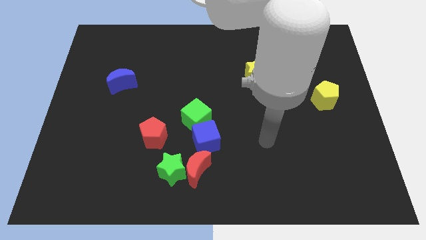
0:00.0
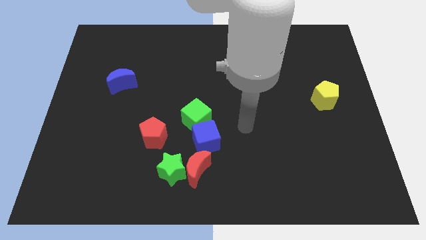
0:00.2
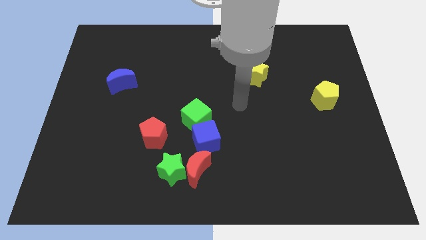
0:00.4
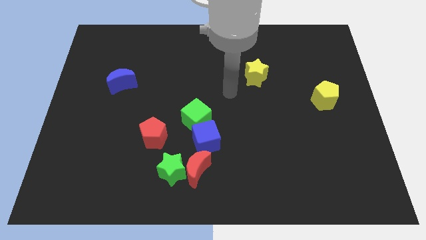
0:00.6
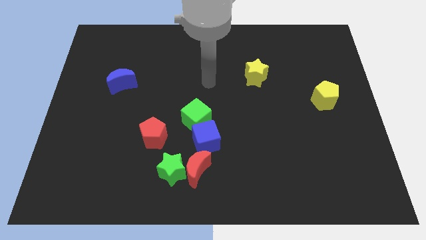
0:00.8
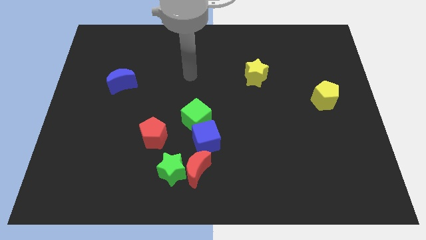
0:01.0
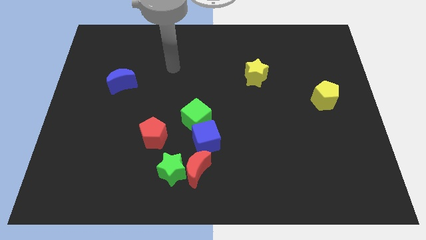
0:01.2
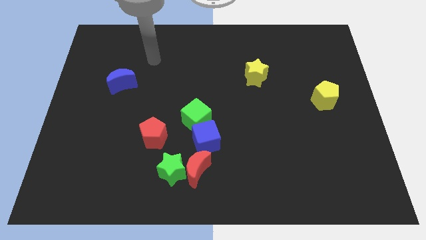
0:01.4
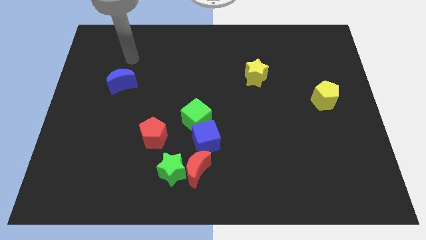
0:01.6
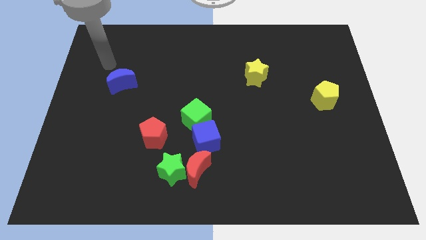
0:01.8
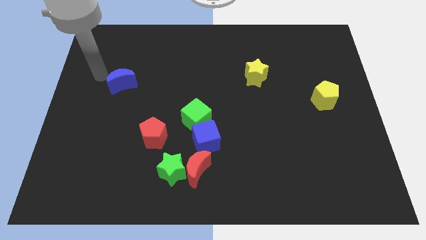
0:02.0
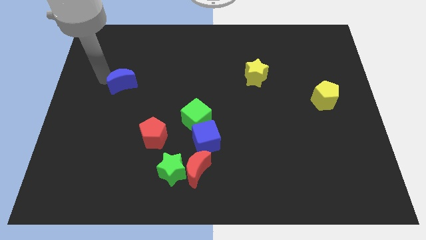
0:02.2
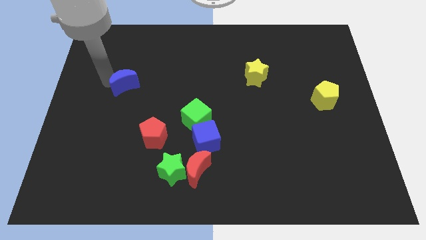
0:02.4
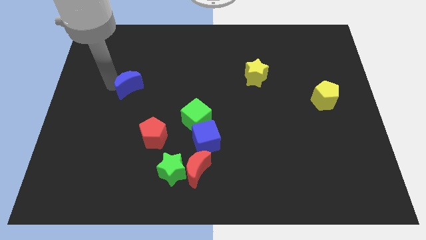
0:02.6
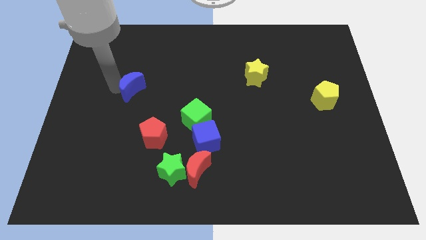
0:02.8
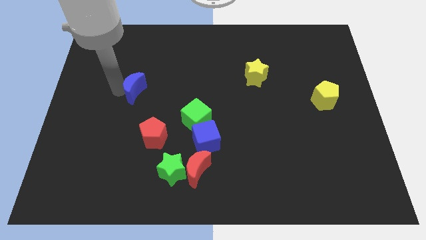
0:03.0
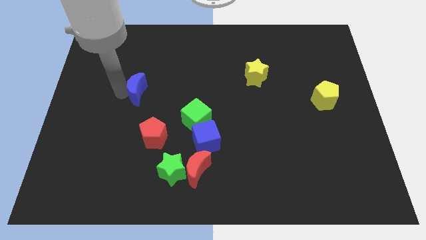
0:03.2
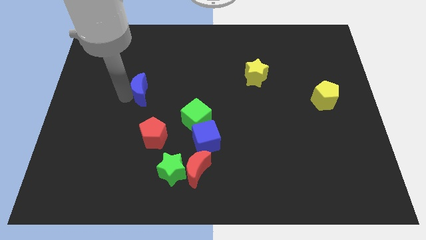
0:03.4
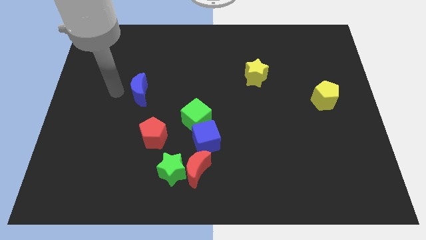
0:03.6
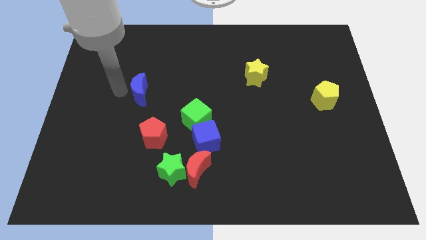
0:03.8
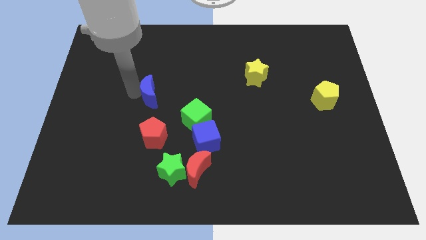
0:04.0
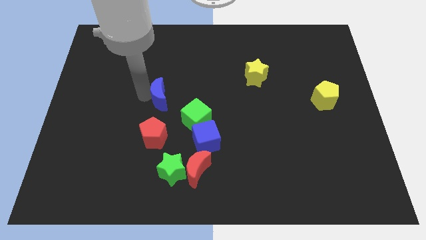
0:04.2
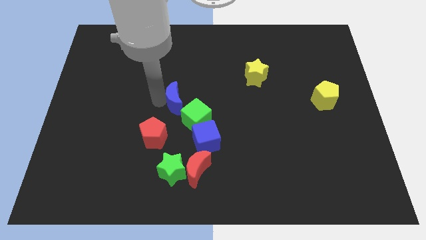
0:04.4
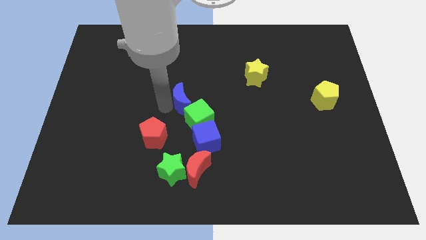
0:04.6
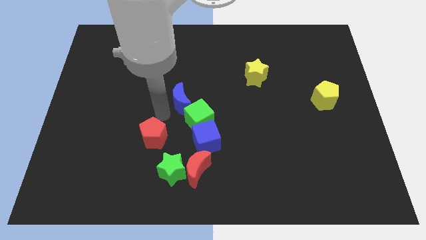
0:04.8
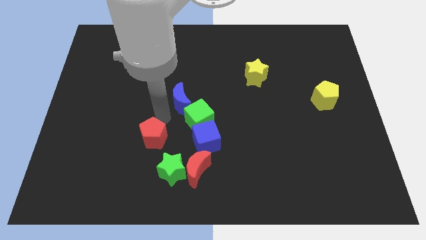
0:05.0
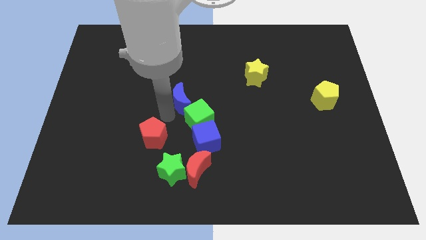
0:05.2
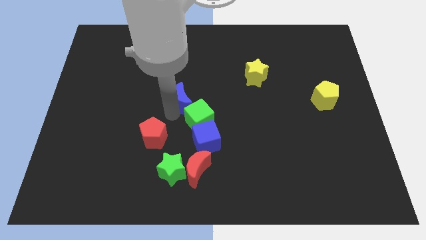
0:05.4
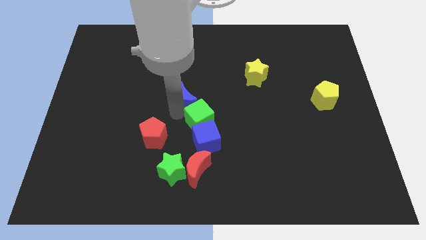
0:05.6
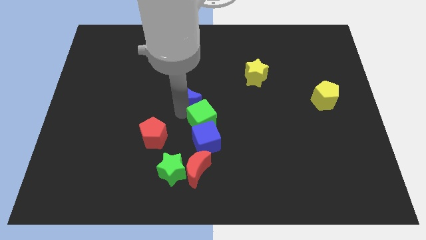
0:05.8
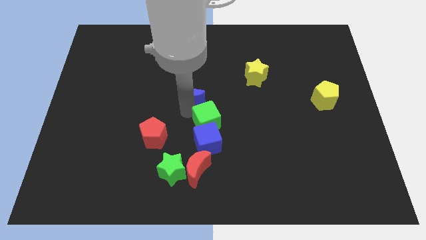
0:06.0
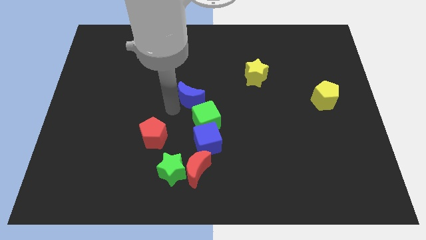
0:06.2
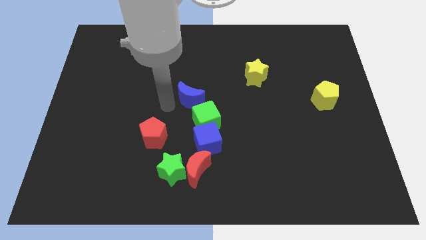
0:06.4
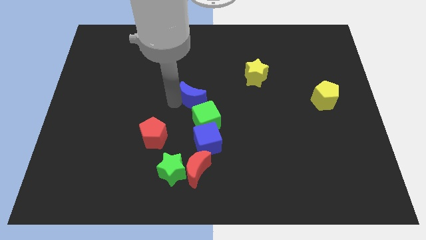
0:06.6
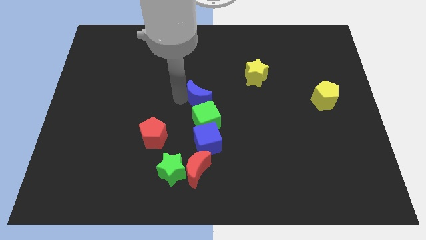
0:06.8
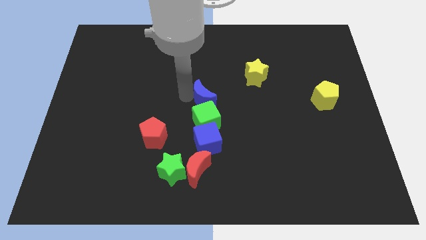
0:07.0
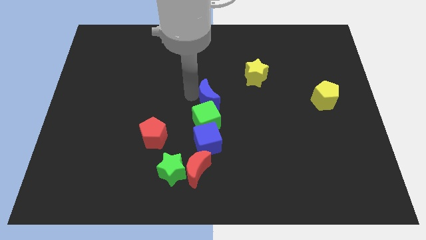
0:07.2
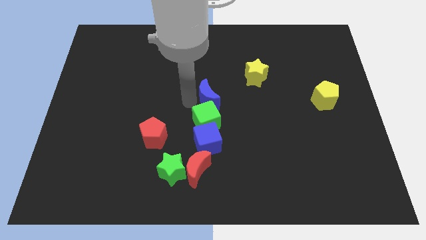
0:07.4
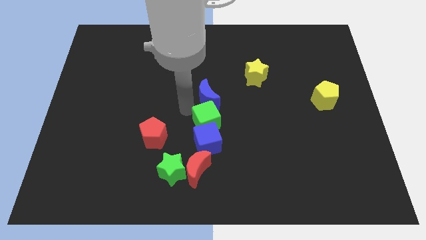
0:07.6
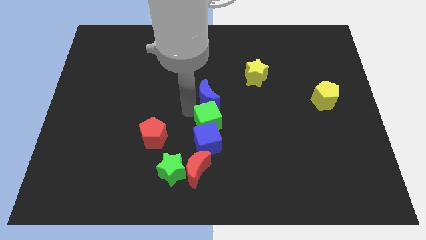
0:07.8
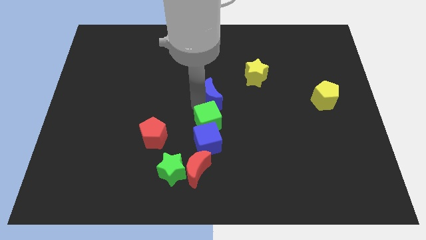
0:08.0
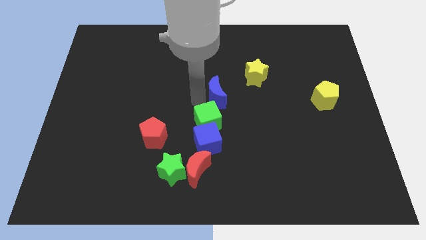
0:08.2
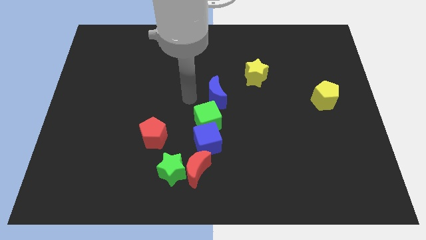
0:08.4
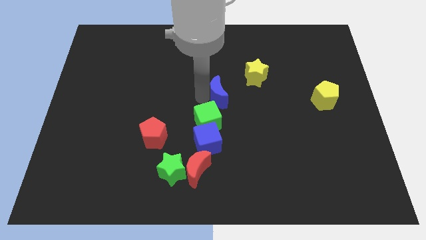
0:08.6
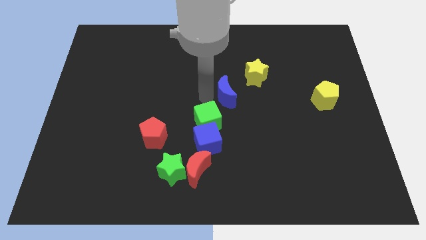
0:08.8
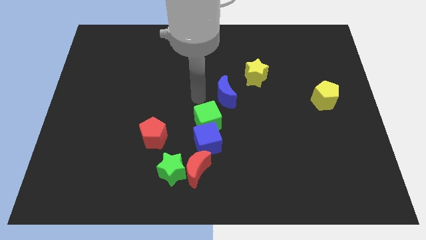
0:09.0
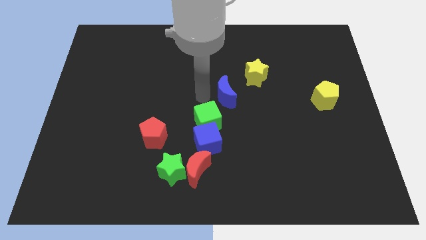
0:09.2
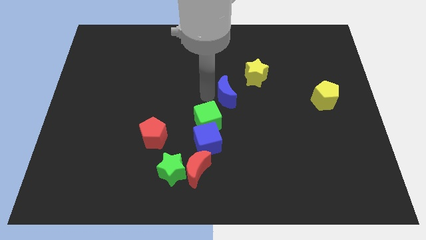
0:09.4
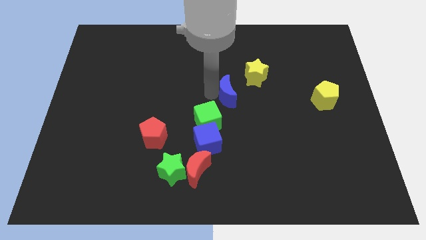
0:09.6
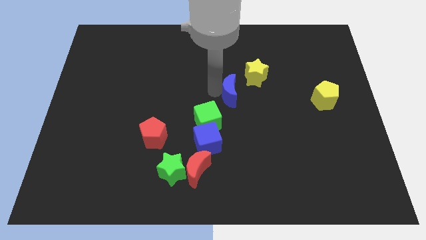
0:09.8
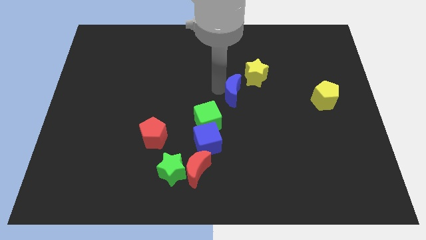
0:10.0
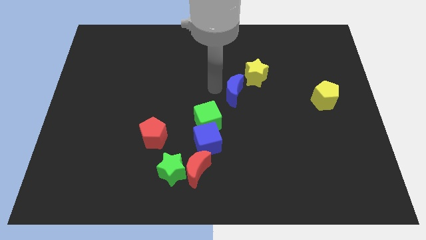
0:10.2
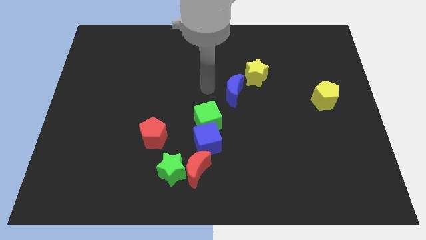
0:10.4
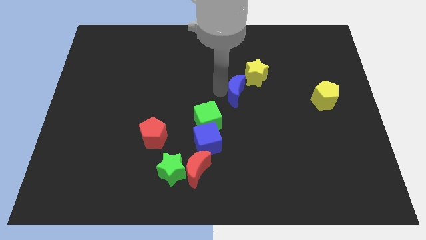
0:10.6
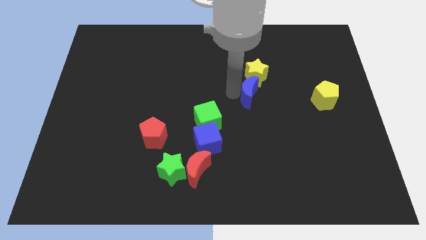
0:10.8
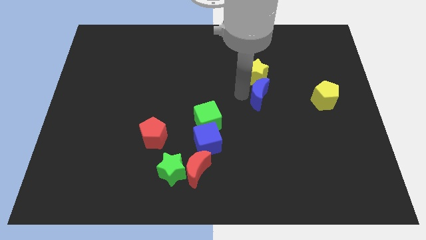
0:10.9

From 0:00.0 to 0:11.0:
put the blue moon to the left side of the yellow pentagon
